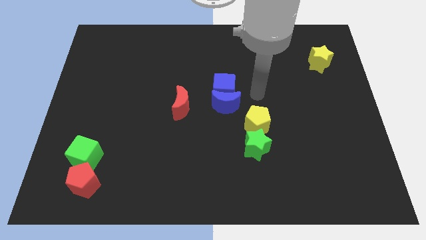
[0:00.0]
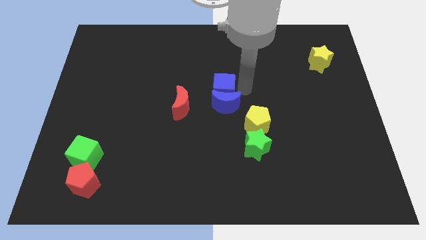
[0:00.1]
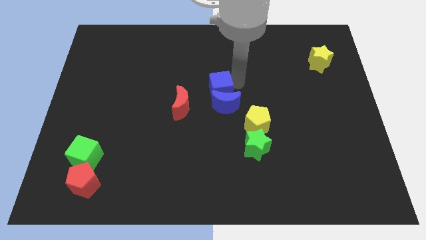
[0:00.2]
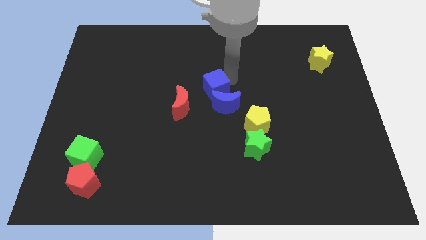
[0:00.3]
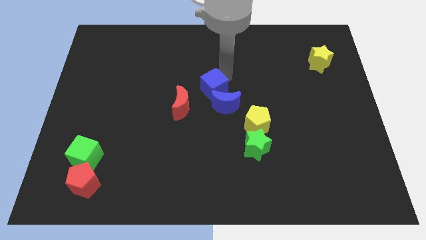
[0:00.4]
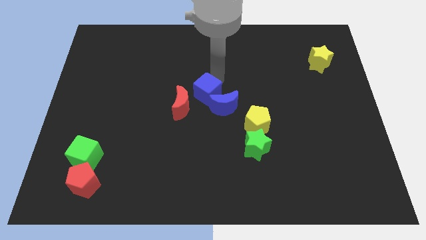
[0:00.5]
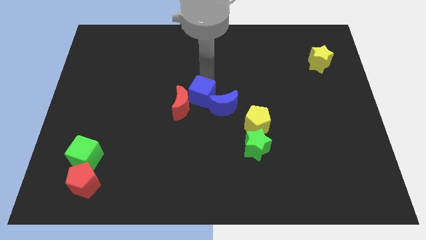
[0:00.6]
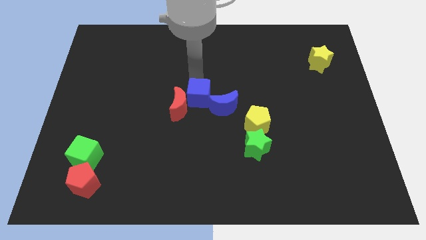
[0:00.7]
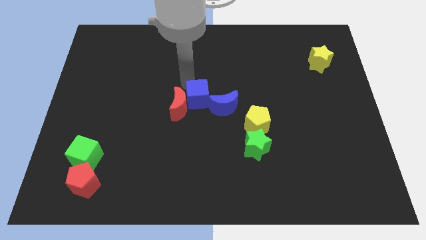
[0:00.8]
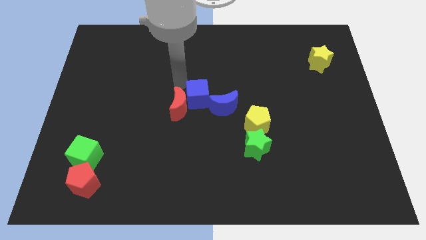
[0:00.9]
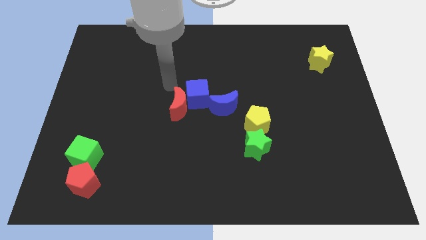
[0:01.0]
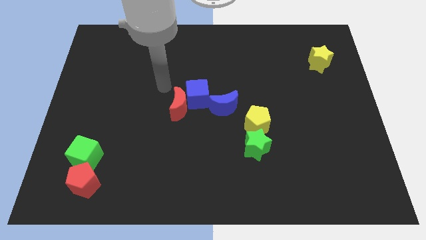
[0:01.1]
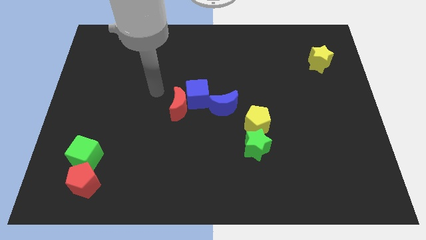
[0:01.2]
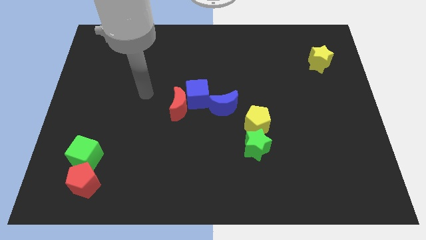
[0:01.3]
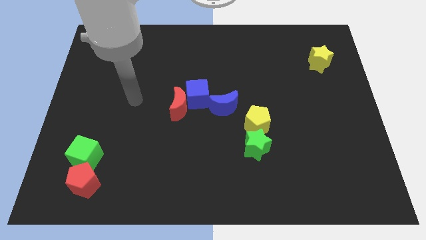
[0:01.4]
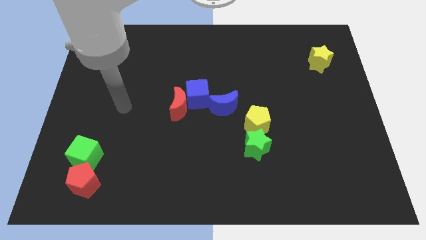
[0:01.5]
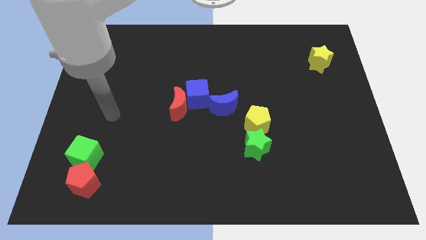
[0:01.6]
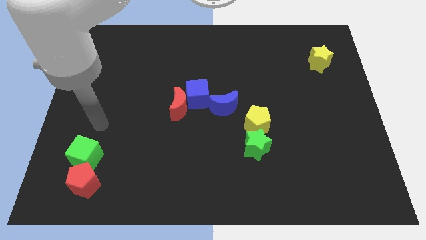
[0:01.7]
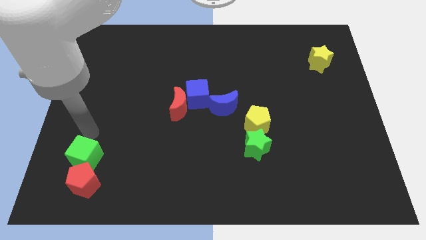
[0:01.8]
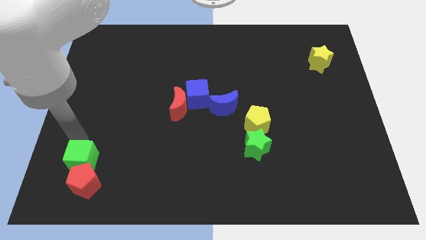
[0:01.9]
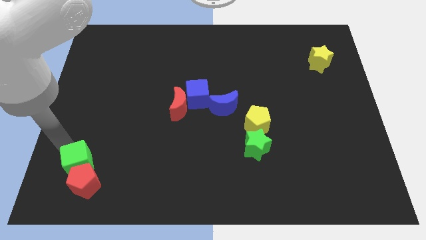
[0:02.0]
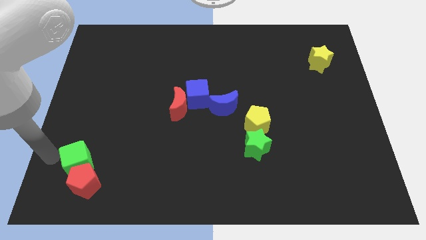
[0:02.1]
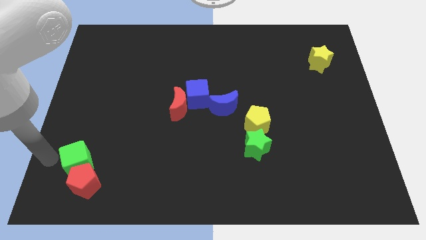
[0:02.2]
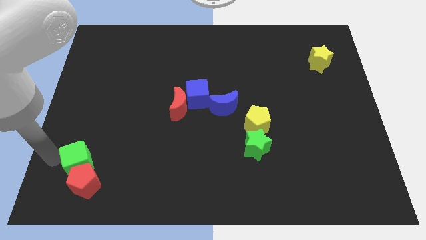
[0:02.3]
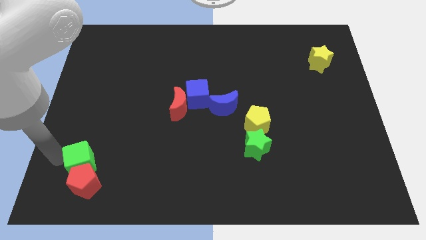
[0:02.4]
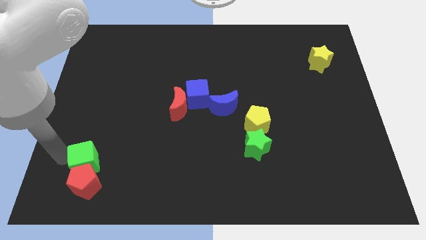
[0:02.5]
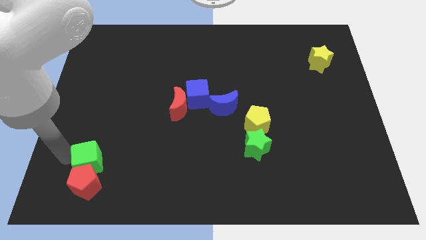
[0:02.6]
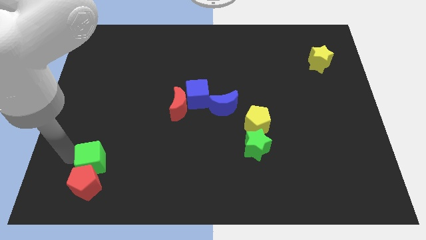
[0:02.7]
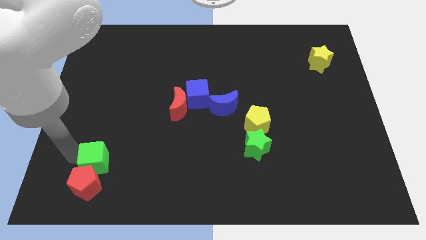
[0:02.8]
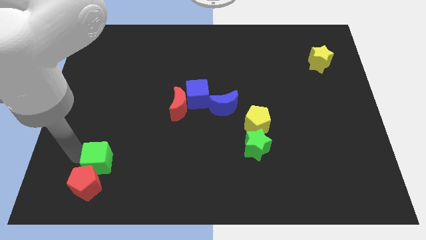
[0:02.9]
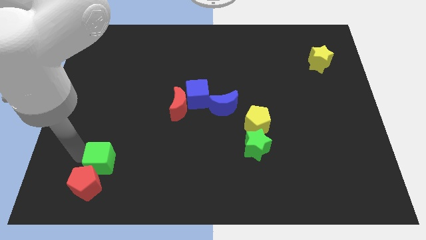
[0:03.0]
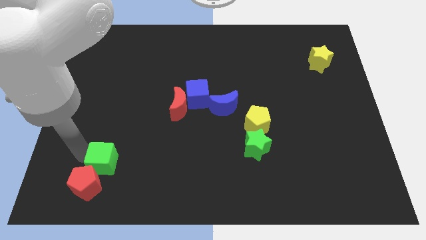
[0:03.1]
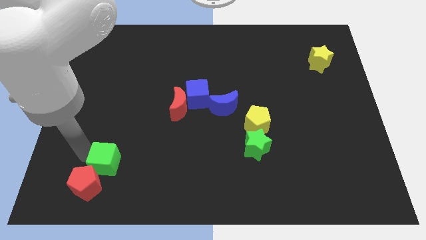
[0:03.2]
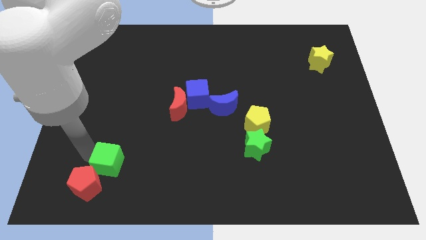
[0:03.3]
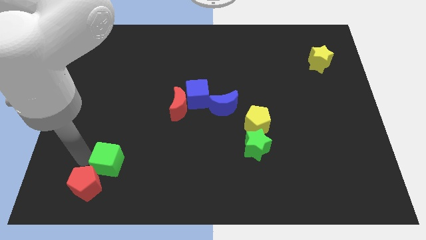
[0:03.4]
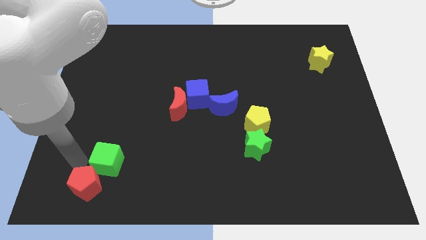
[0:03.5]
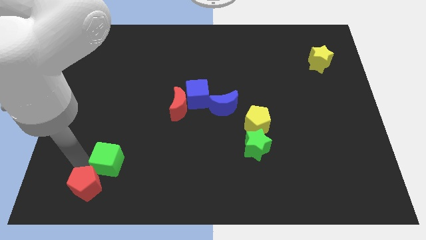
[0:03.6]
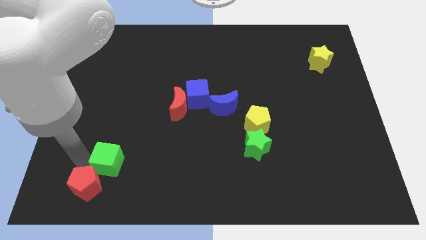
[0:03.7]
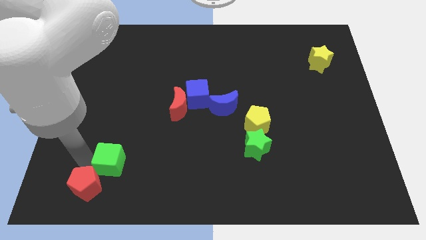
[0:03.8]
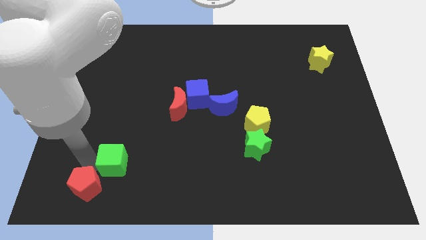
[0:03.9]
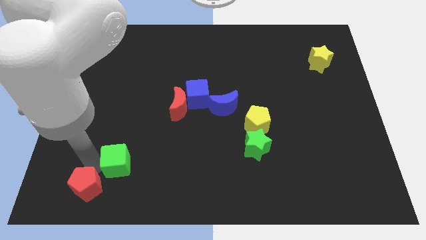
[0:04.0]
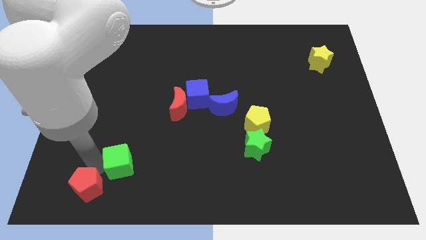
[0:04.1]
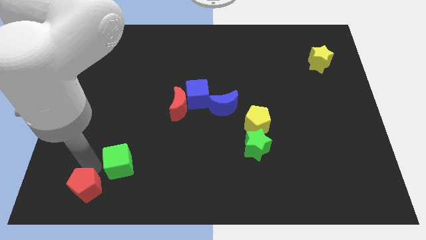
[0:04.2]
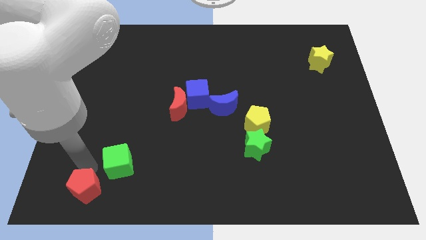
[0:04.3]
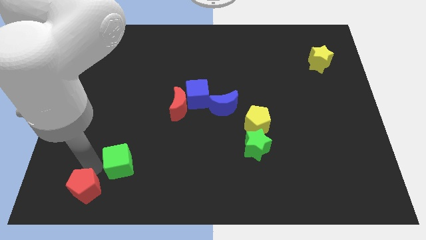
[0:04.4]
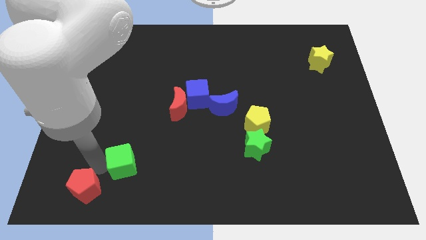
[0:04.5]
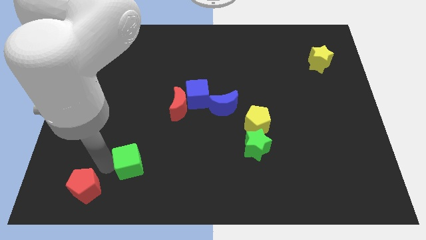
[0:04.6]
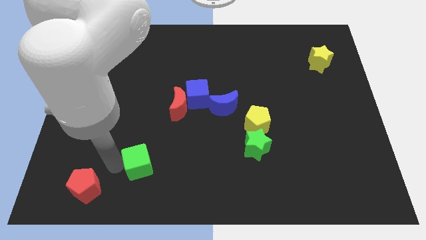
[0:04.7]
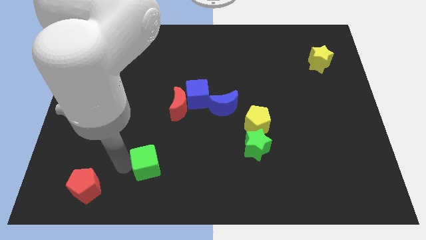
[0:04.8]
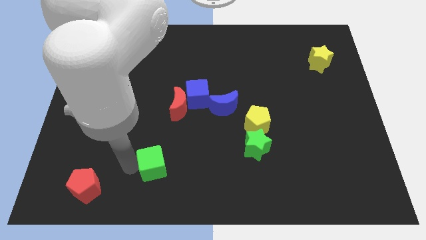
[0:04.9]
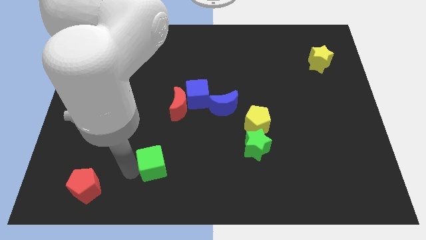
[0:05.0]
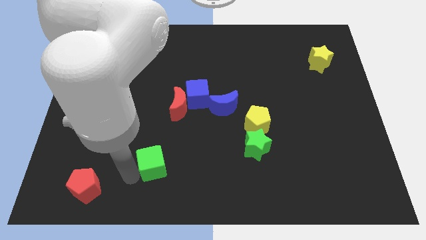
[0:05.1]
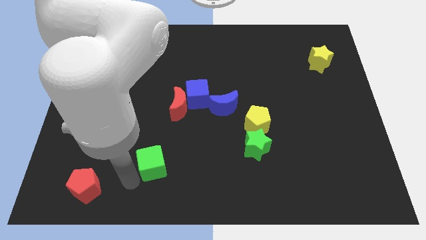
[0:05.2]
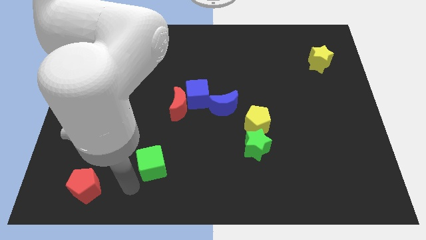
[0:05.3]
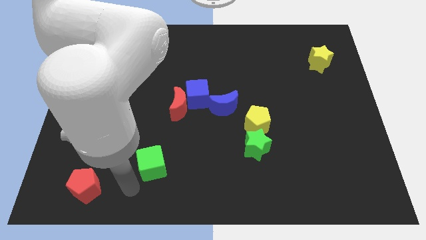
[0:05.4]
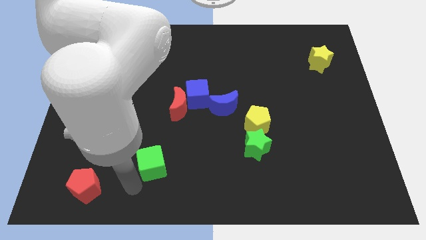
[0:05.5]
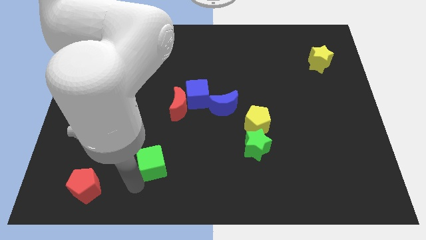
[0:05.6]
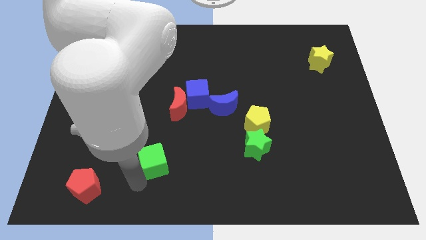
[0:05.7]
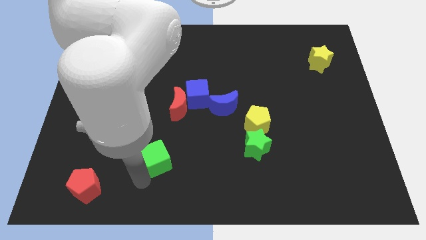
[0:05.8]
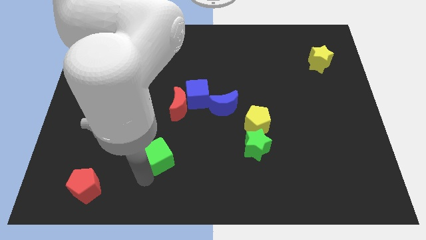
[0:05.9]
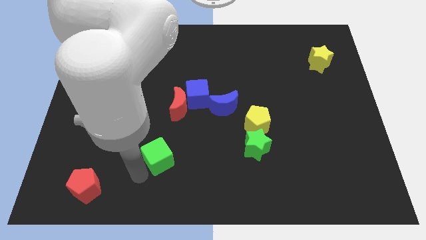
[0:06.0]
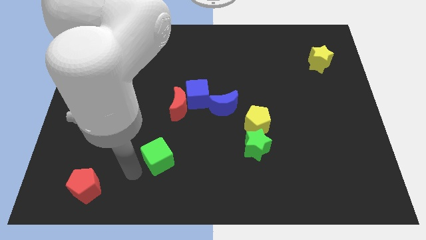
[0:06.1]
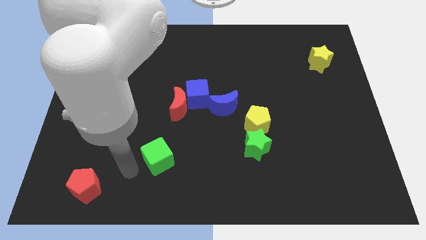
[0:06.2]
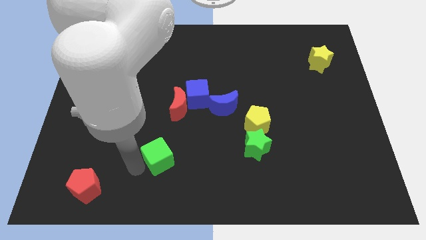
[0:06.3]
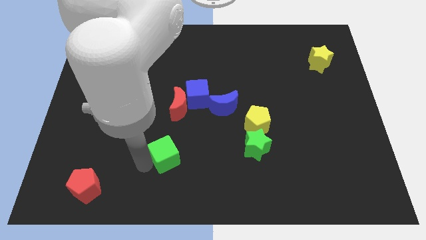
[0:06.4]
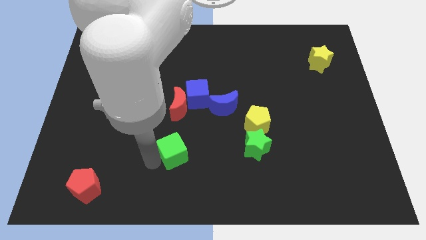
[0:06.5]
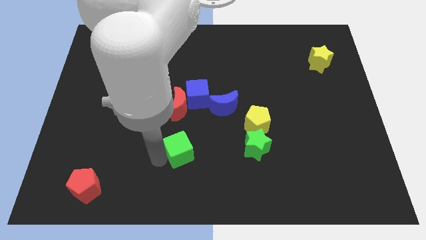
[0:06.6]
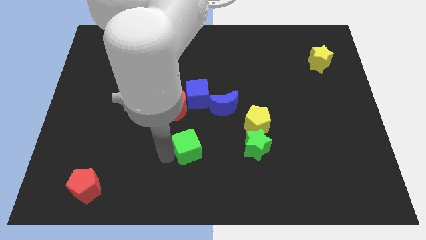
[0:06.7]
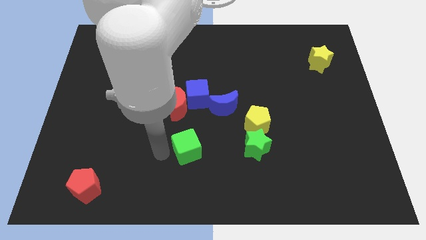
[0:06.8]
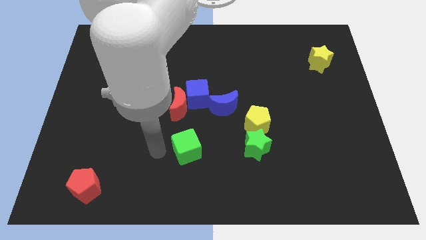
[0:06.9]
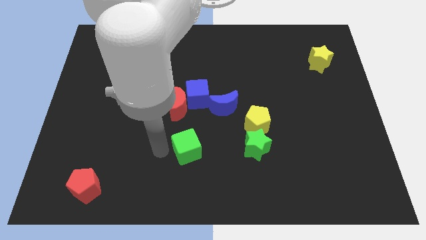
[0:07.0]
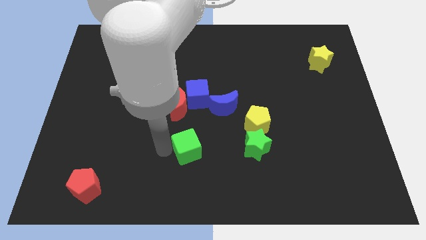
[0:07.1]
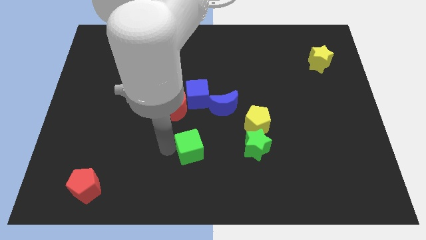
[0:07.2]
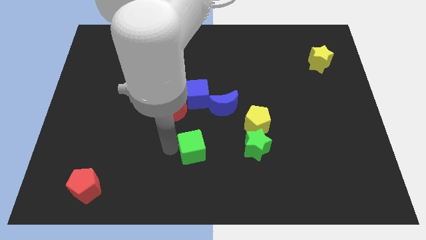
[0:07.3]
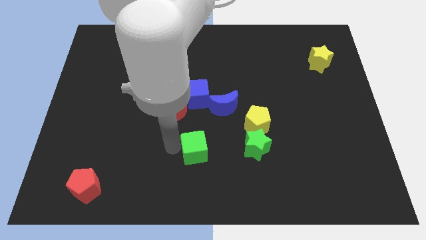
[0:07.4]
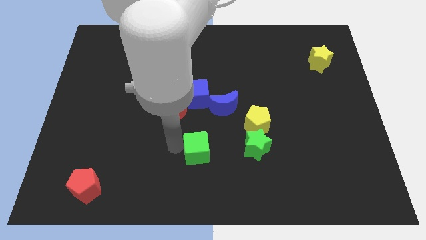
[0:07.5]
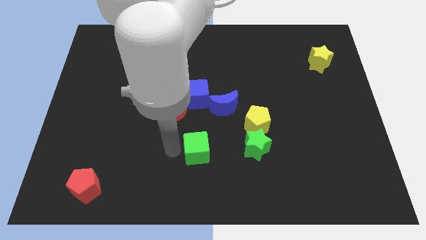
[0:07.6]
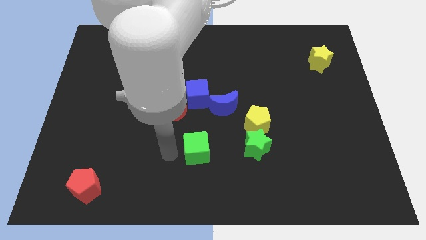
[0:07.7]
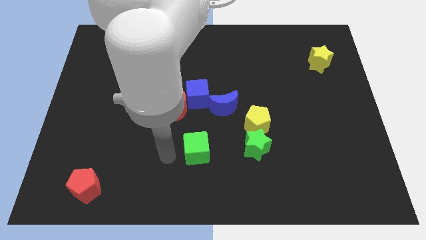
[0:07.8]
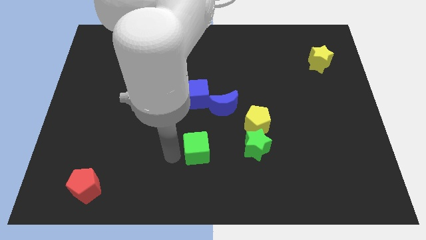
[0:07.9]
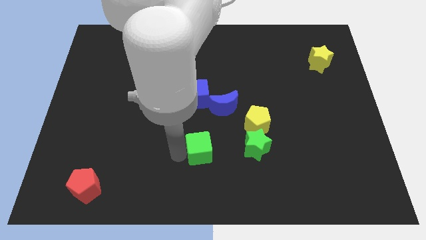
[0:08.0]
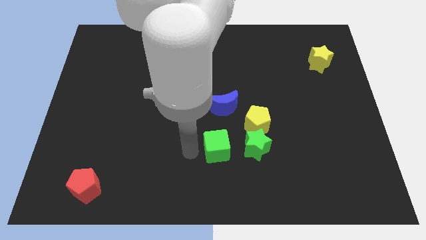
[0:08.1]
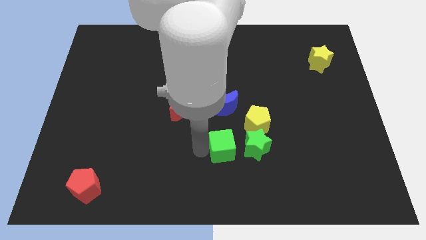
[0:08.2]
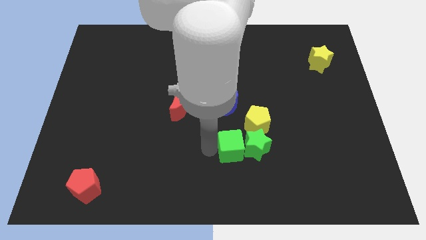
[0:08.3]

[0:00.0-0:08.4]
move the green cube close to the green star
